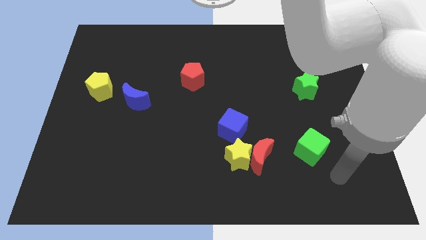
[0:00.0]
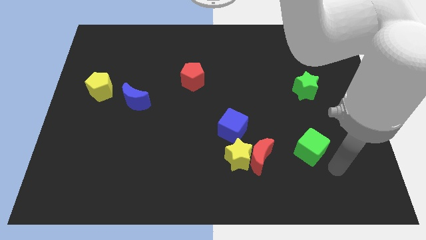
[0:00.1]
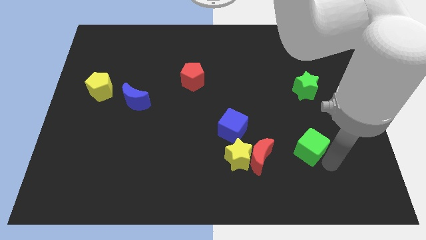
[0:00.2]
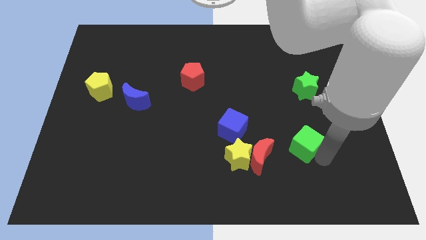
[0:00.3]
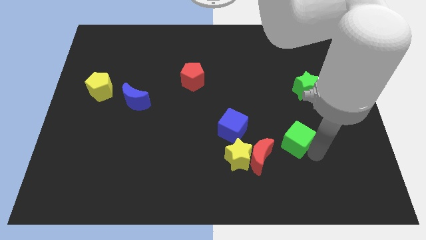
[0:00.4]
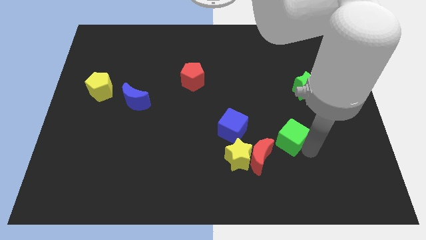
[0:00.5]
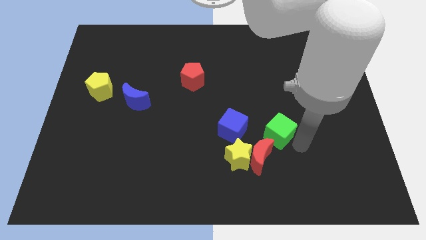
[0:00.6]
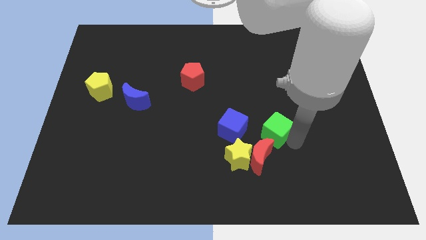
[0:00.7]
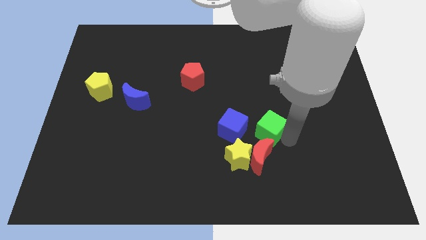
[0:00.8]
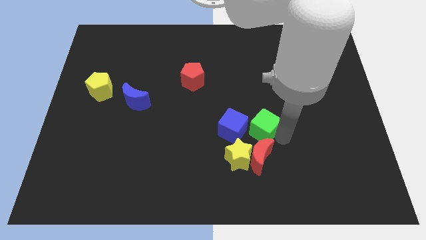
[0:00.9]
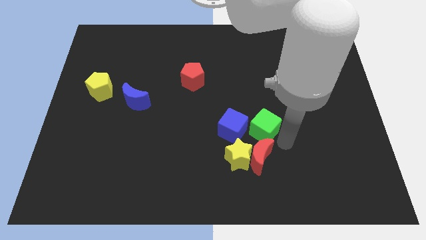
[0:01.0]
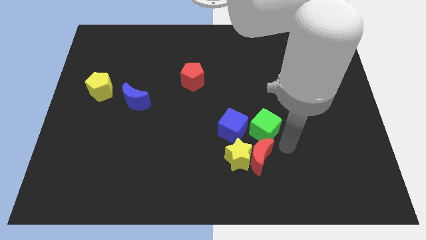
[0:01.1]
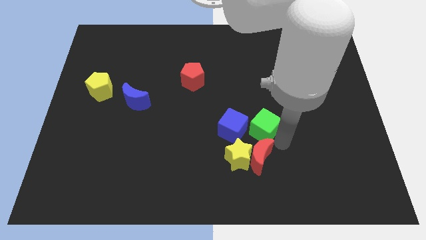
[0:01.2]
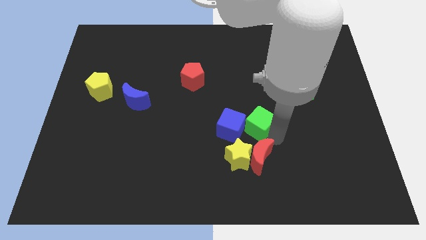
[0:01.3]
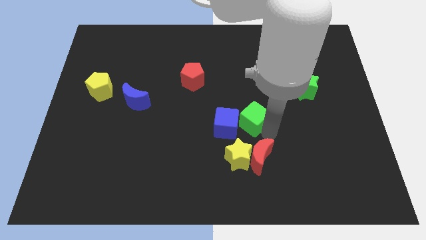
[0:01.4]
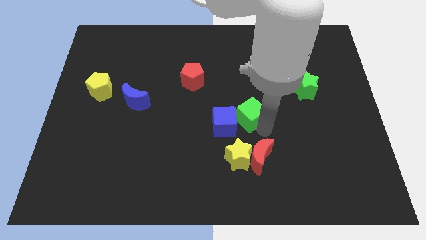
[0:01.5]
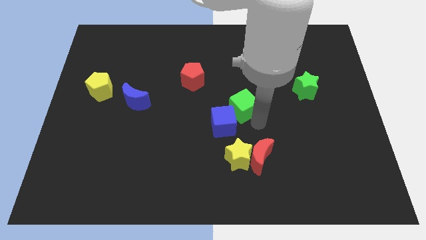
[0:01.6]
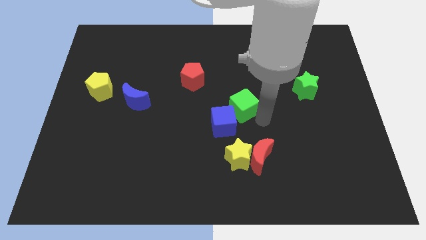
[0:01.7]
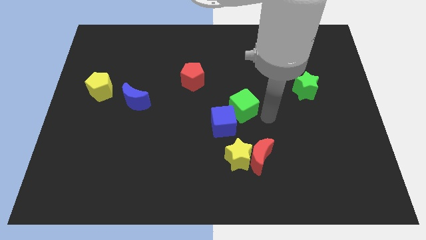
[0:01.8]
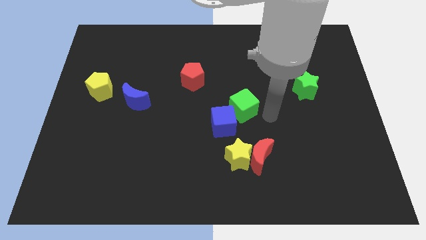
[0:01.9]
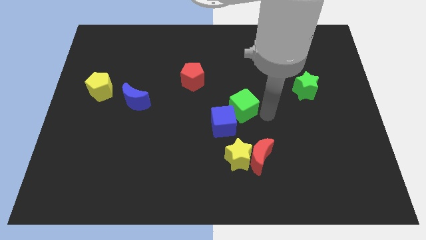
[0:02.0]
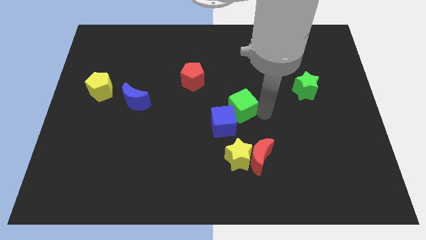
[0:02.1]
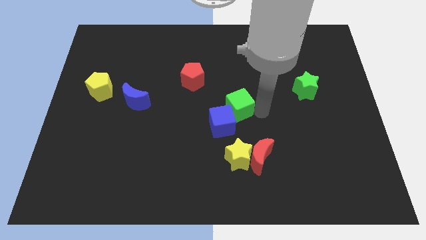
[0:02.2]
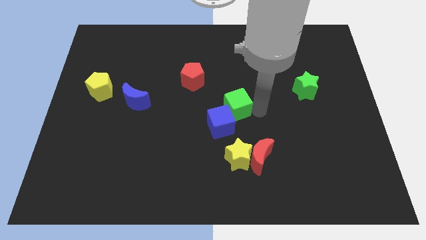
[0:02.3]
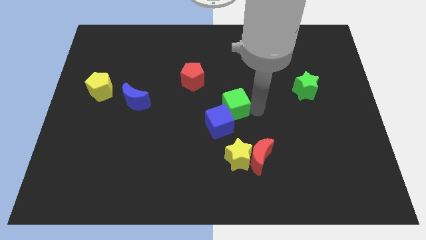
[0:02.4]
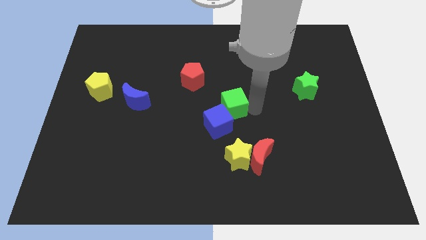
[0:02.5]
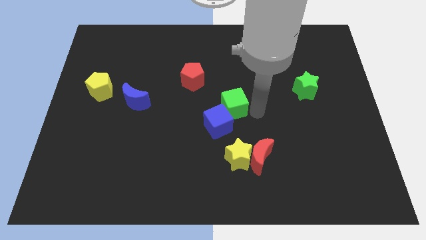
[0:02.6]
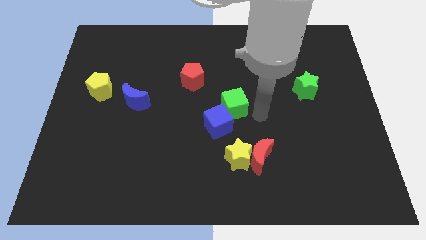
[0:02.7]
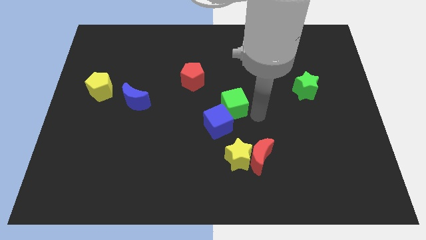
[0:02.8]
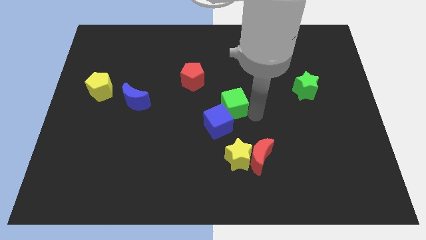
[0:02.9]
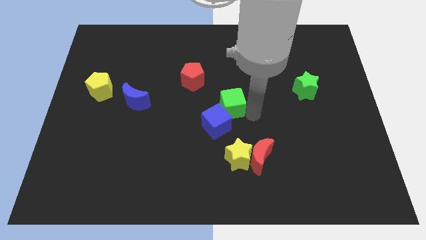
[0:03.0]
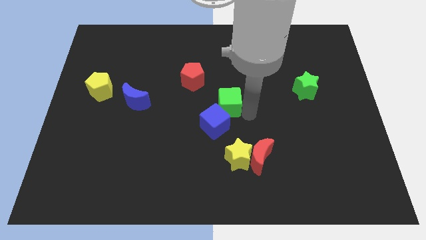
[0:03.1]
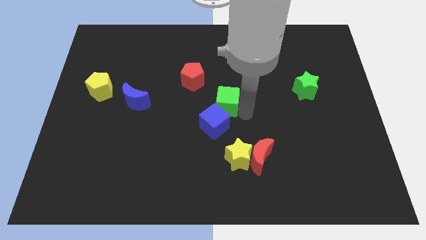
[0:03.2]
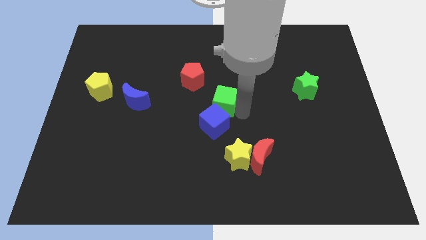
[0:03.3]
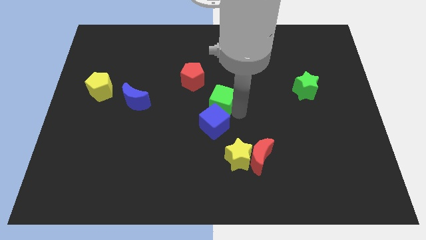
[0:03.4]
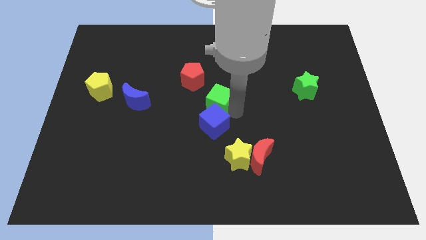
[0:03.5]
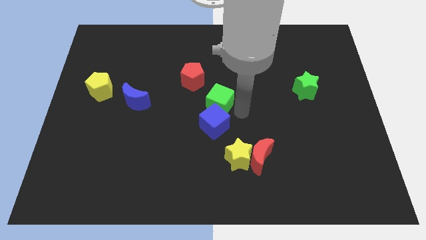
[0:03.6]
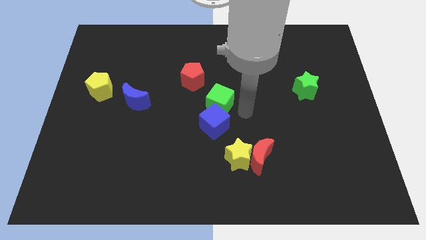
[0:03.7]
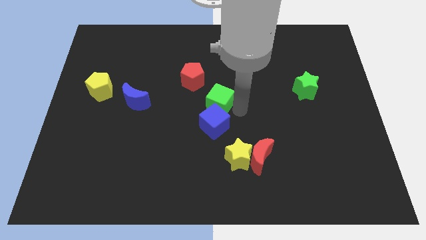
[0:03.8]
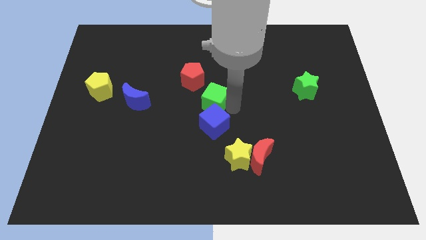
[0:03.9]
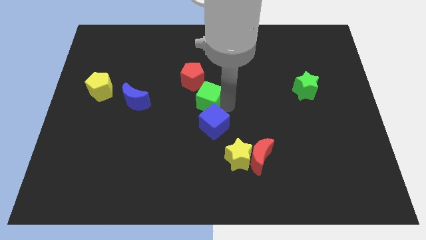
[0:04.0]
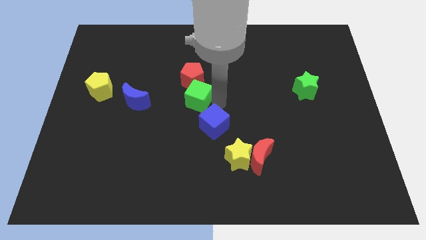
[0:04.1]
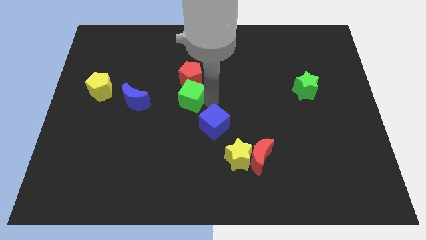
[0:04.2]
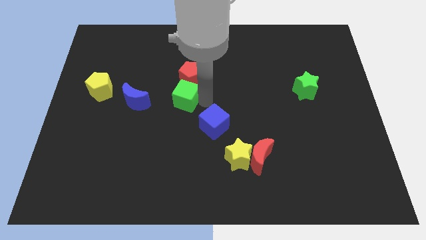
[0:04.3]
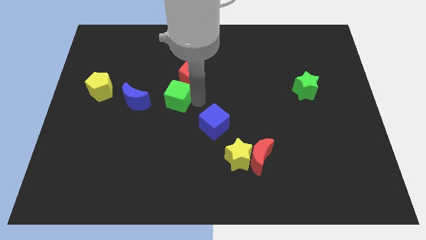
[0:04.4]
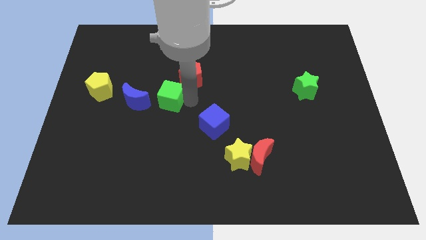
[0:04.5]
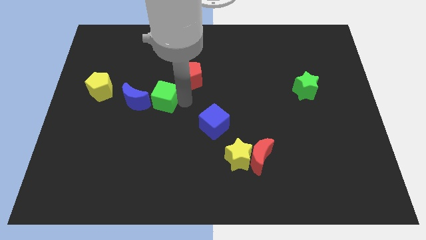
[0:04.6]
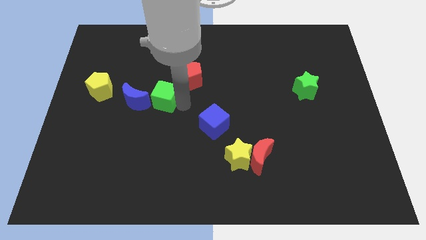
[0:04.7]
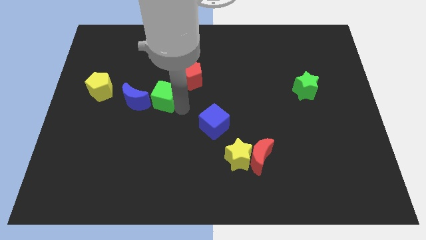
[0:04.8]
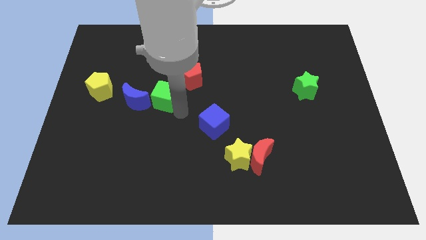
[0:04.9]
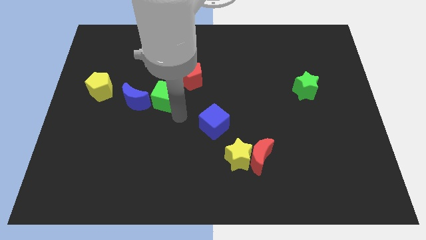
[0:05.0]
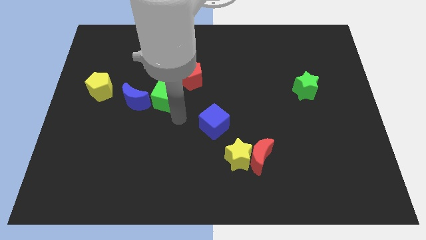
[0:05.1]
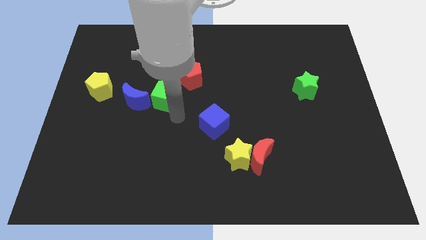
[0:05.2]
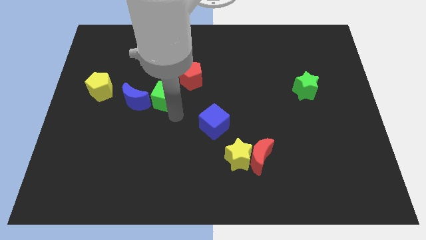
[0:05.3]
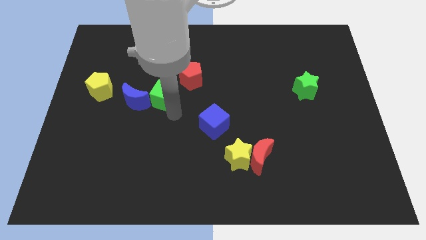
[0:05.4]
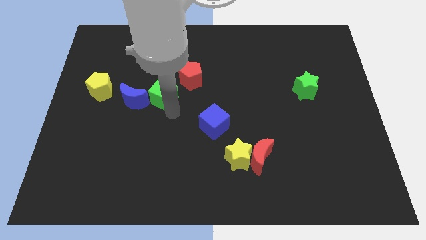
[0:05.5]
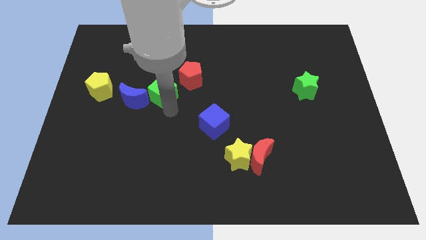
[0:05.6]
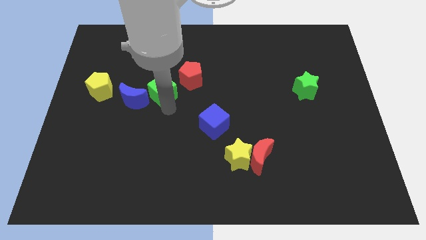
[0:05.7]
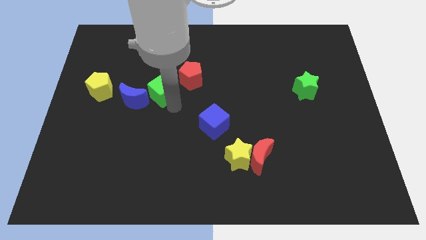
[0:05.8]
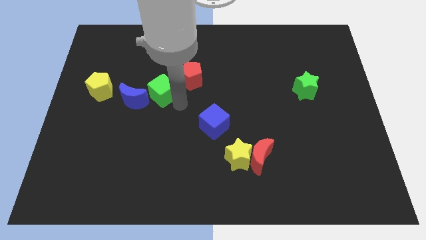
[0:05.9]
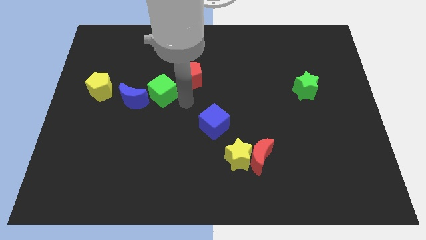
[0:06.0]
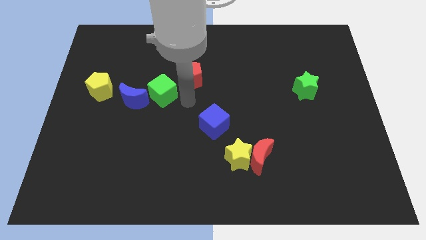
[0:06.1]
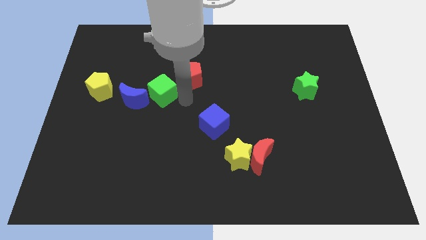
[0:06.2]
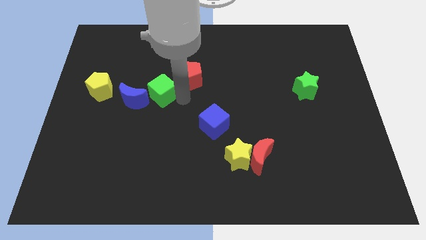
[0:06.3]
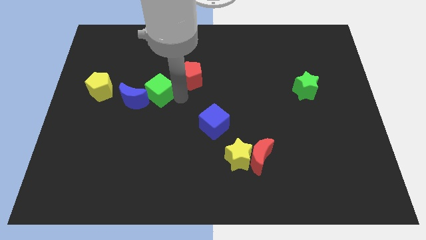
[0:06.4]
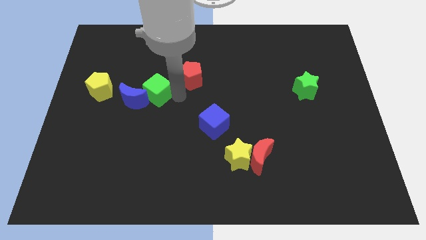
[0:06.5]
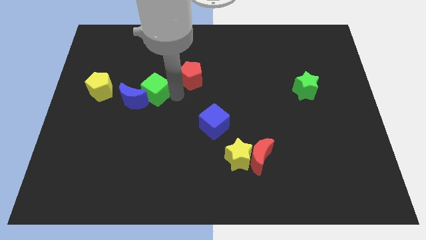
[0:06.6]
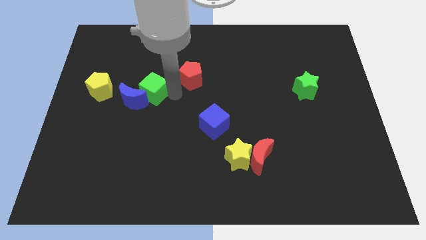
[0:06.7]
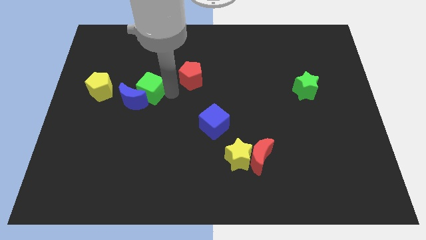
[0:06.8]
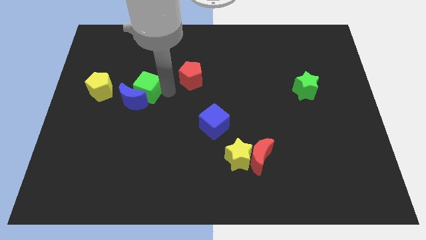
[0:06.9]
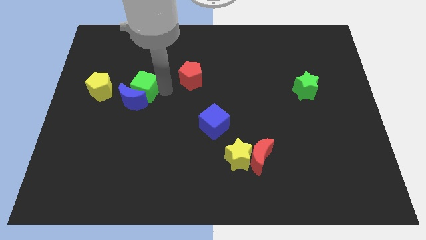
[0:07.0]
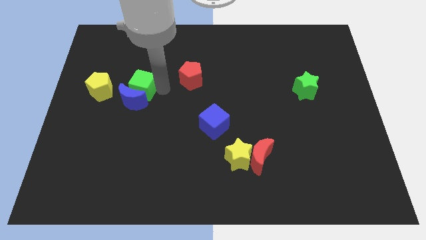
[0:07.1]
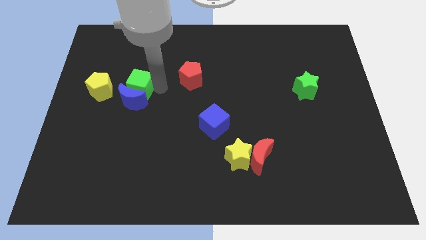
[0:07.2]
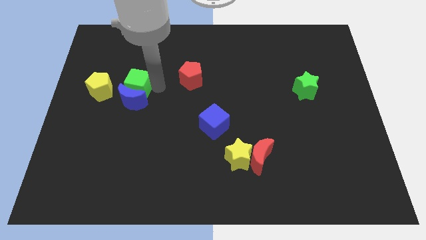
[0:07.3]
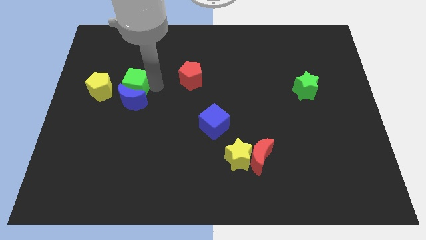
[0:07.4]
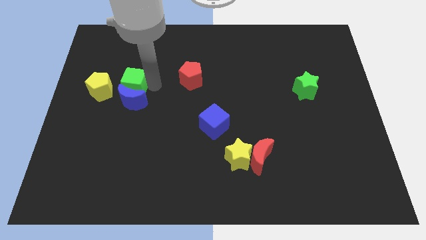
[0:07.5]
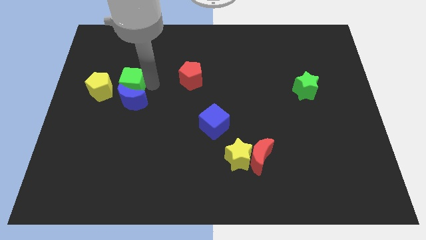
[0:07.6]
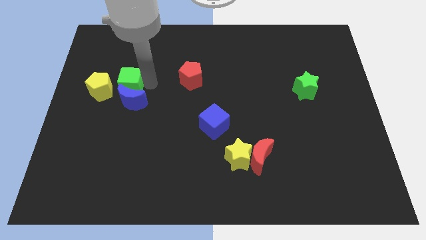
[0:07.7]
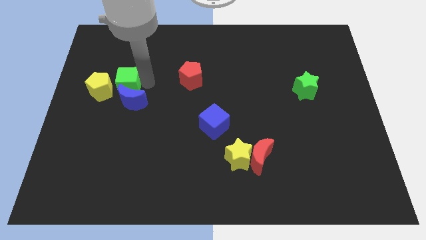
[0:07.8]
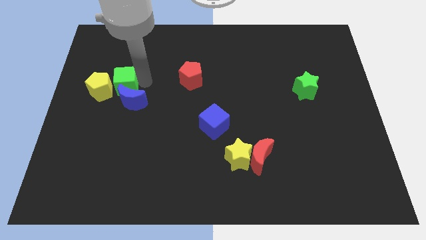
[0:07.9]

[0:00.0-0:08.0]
push the green cube next to the yellow pentagon
